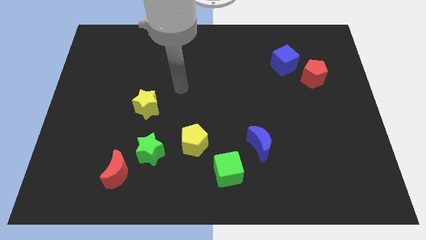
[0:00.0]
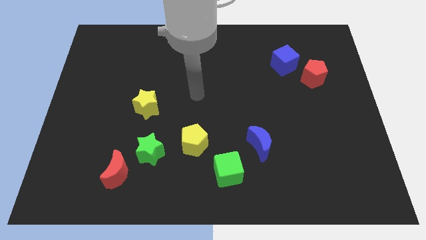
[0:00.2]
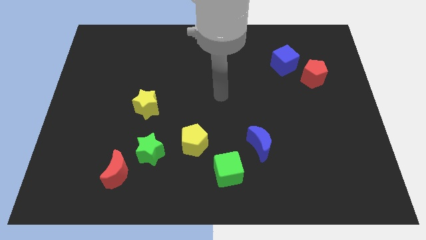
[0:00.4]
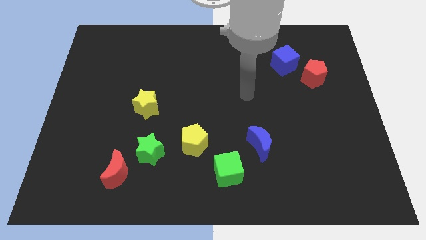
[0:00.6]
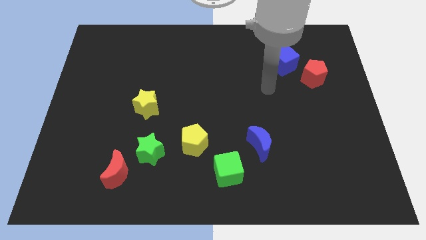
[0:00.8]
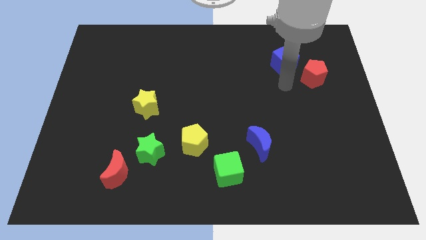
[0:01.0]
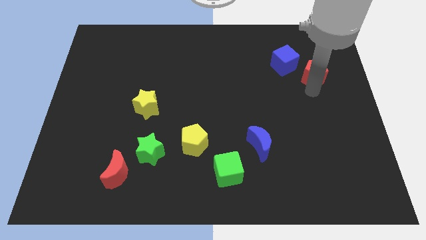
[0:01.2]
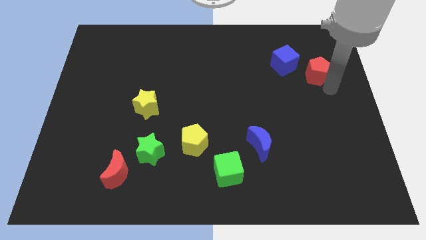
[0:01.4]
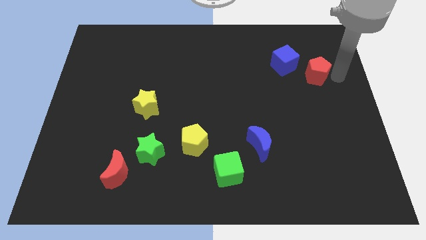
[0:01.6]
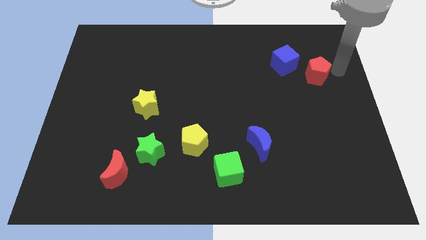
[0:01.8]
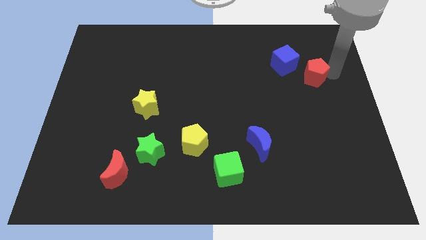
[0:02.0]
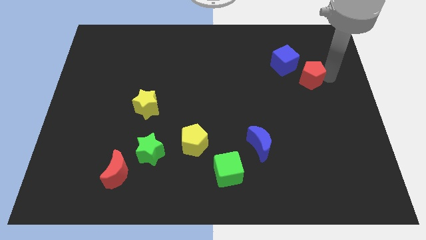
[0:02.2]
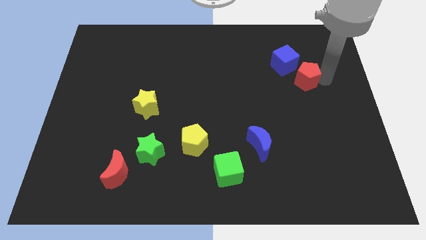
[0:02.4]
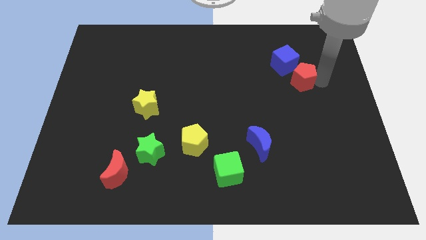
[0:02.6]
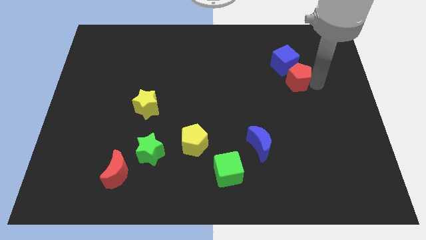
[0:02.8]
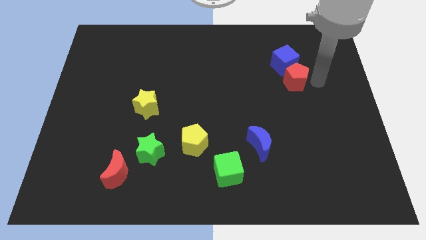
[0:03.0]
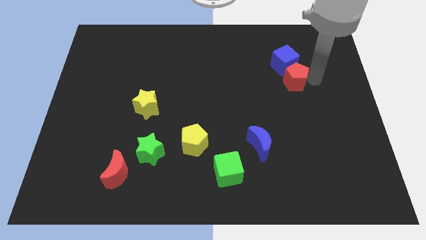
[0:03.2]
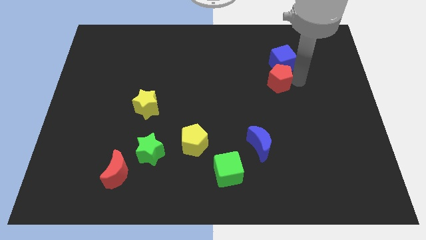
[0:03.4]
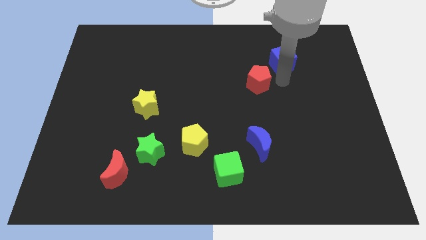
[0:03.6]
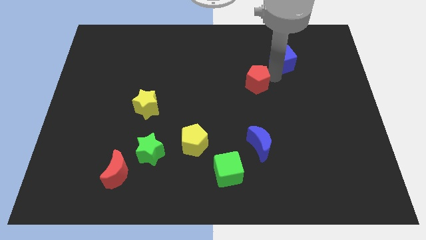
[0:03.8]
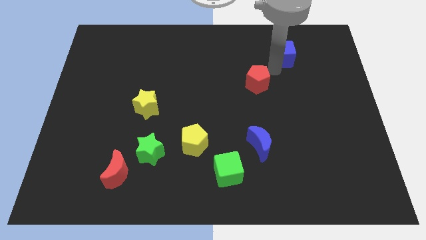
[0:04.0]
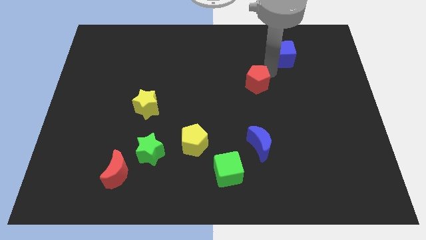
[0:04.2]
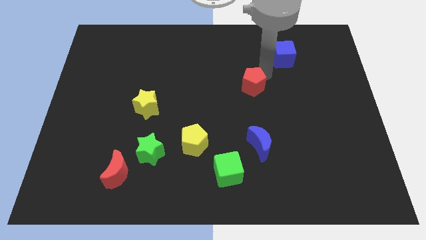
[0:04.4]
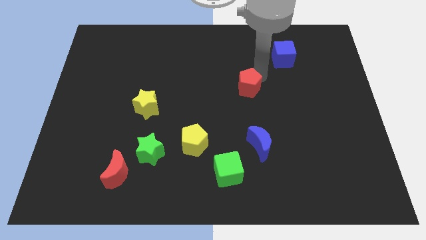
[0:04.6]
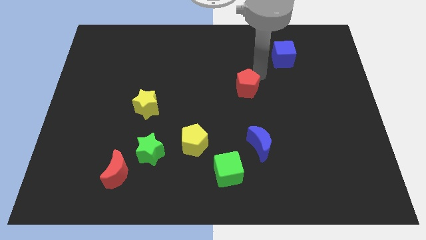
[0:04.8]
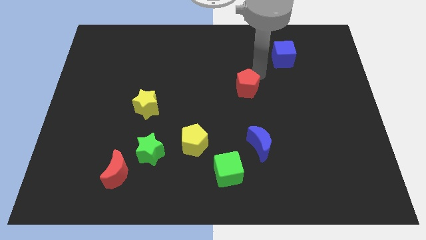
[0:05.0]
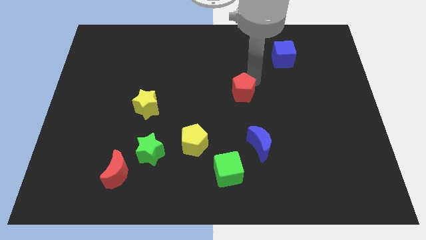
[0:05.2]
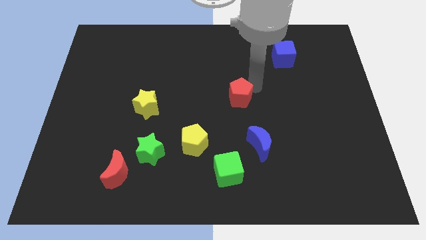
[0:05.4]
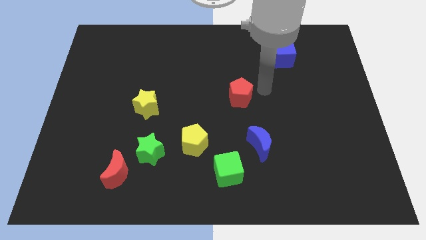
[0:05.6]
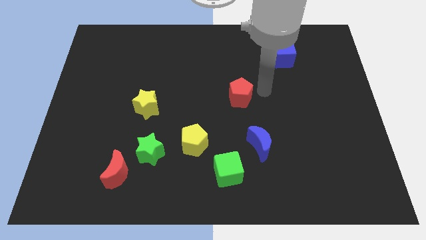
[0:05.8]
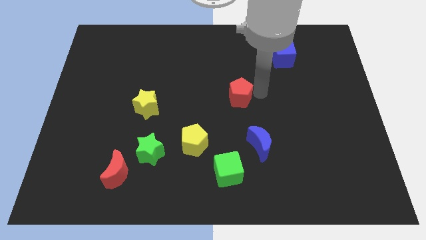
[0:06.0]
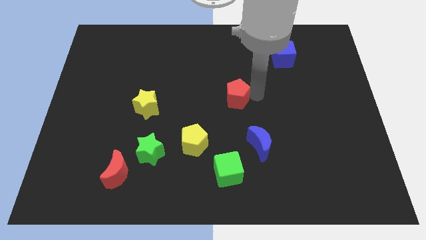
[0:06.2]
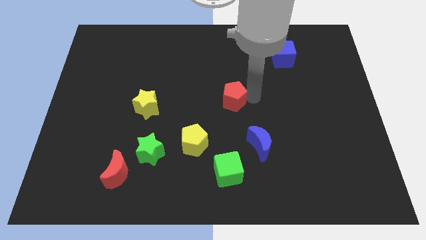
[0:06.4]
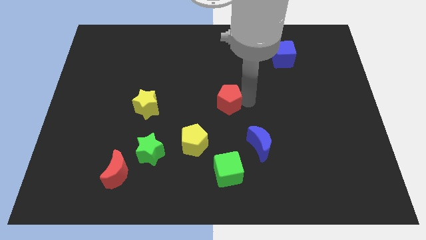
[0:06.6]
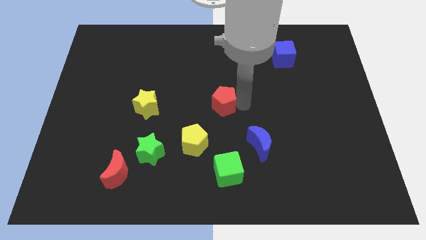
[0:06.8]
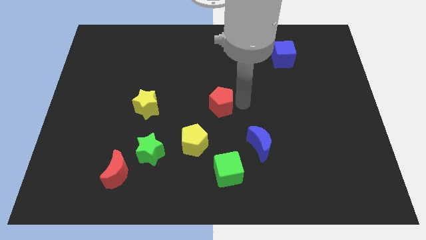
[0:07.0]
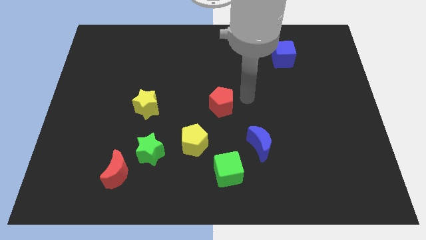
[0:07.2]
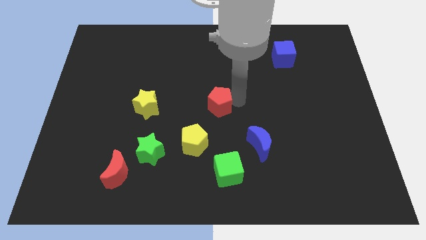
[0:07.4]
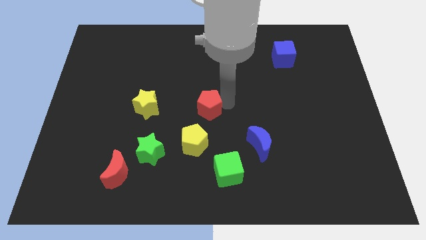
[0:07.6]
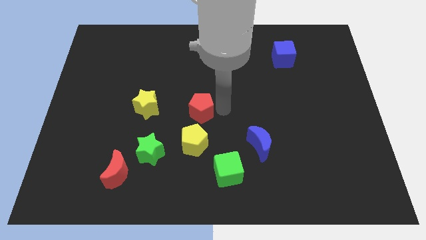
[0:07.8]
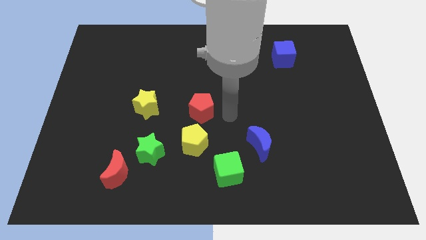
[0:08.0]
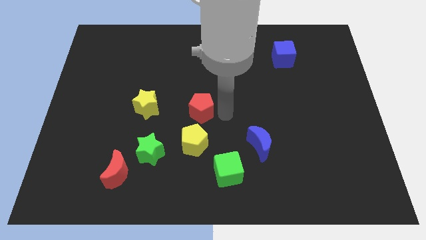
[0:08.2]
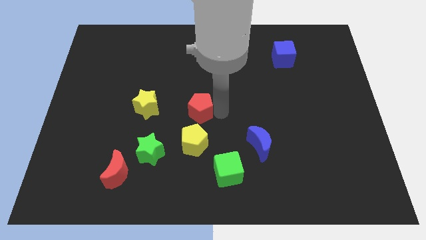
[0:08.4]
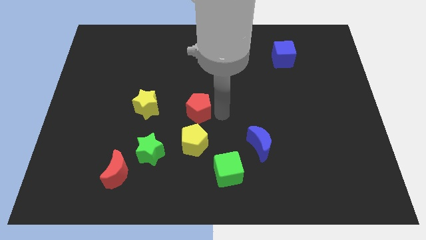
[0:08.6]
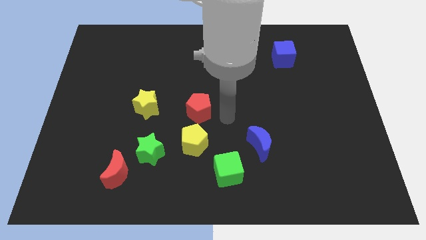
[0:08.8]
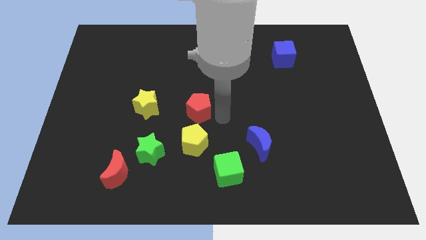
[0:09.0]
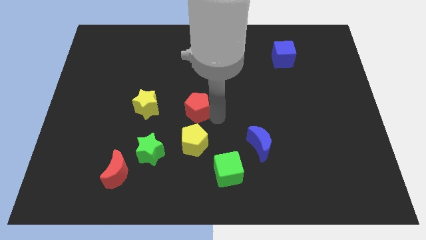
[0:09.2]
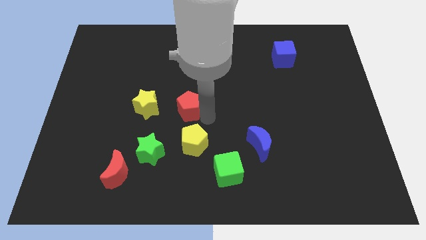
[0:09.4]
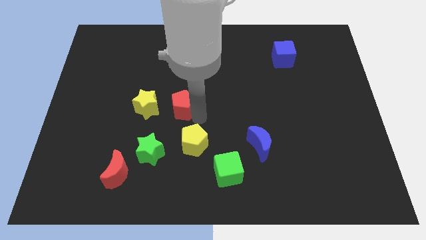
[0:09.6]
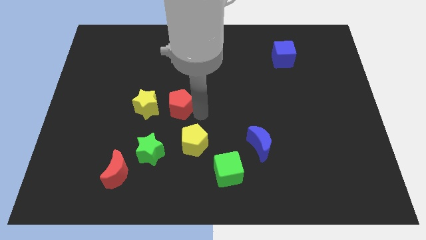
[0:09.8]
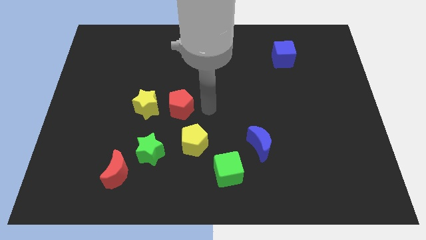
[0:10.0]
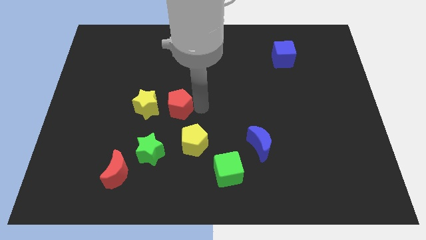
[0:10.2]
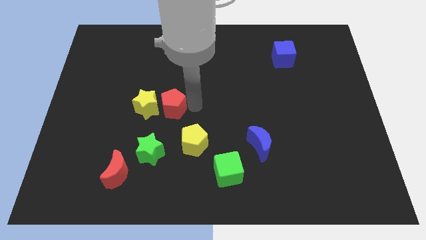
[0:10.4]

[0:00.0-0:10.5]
put the red pentagon to the yellow star

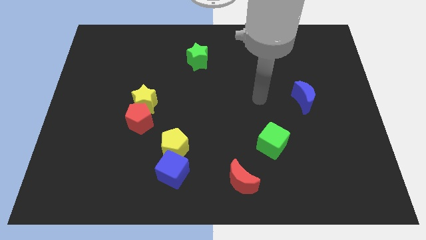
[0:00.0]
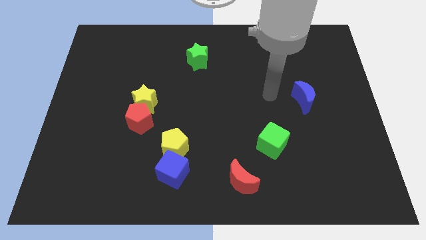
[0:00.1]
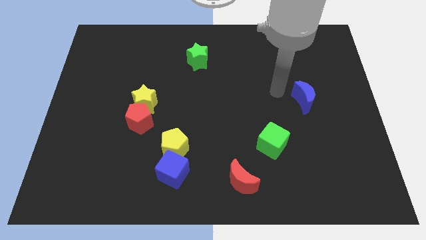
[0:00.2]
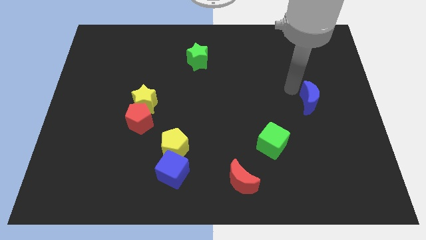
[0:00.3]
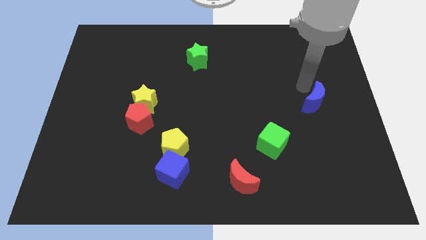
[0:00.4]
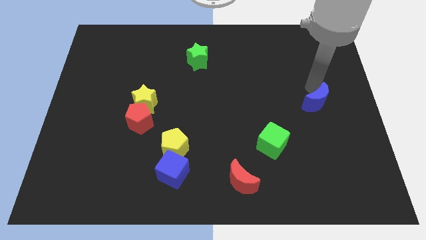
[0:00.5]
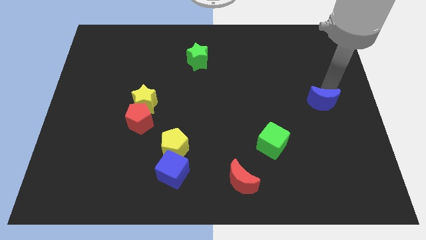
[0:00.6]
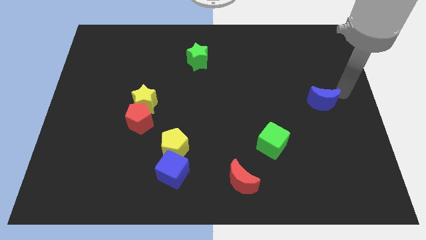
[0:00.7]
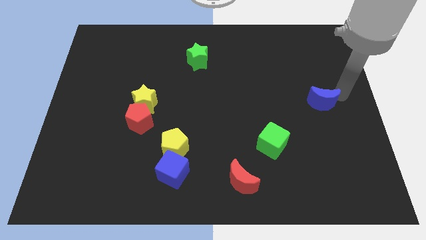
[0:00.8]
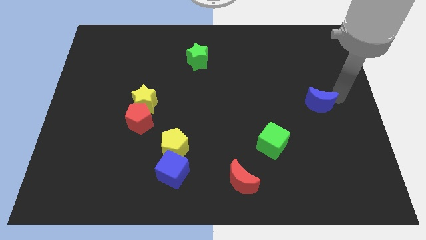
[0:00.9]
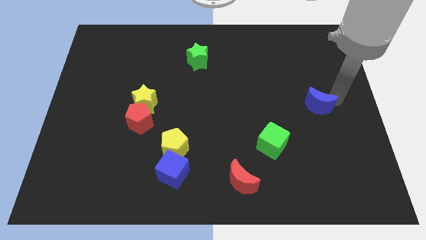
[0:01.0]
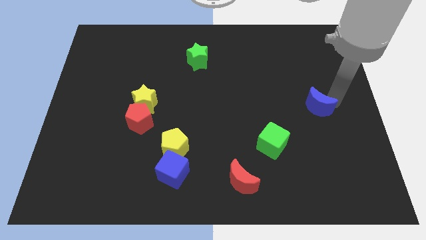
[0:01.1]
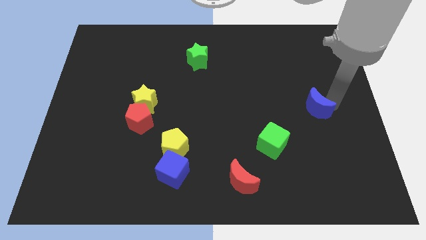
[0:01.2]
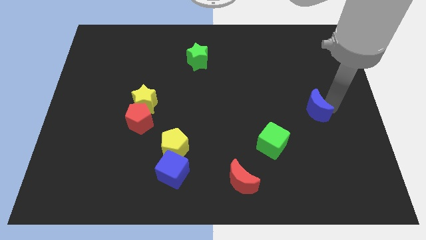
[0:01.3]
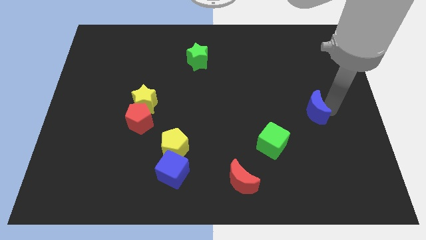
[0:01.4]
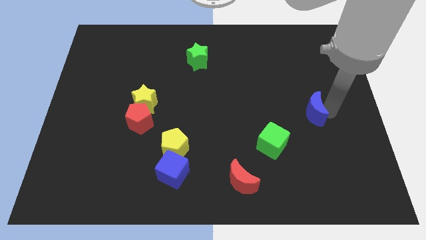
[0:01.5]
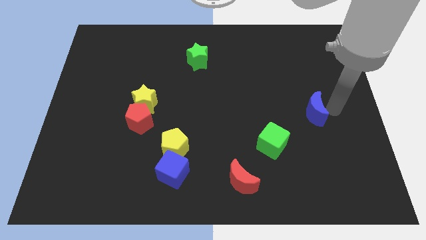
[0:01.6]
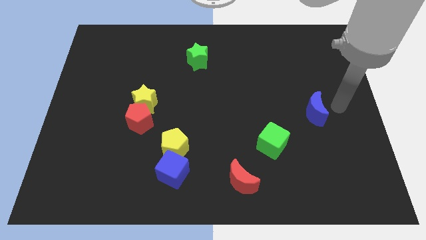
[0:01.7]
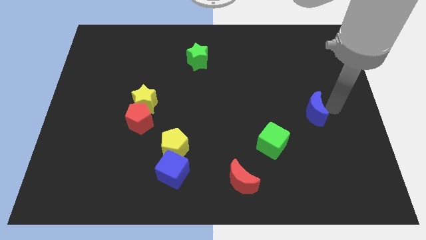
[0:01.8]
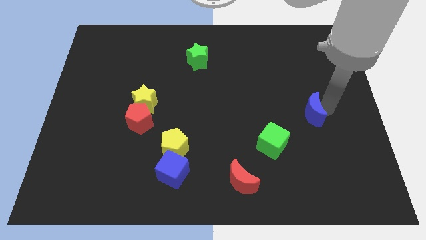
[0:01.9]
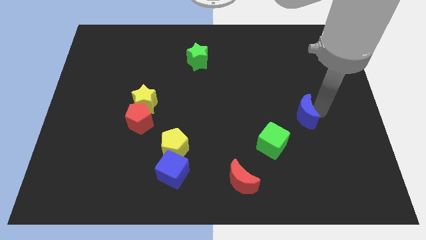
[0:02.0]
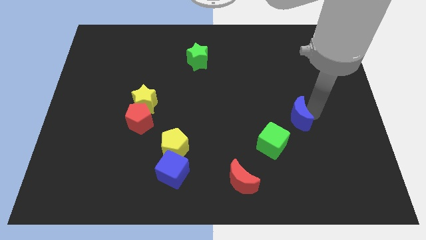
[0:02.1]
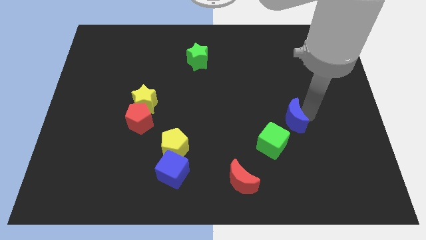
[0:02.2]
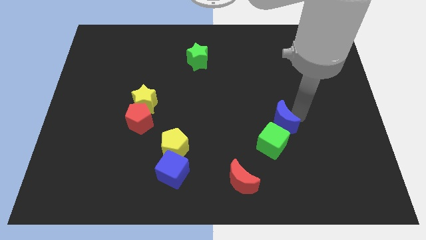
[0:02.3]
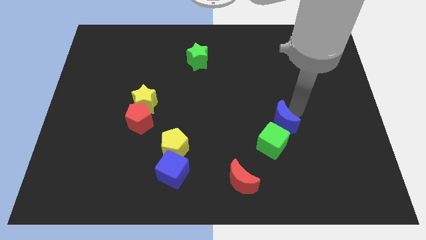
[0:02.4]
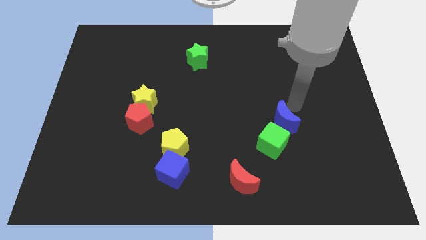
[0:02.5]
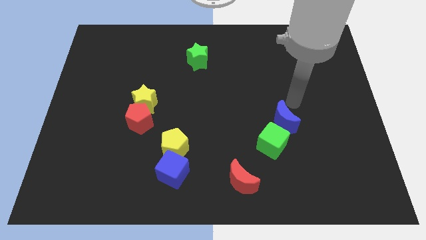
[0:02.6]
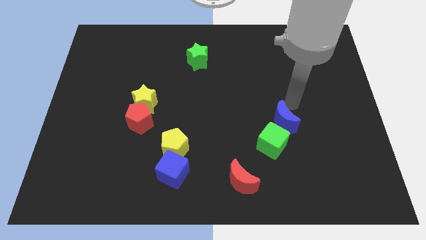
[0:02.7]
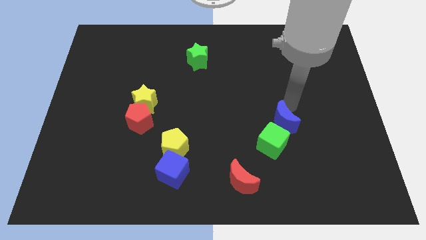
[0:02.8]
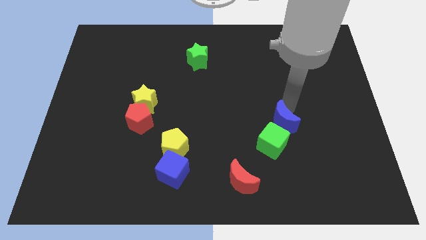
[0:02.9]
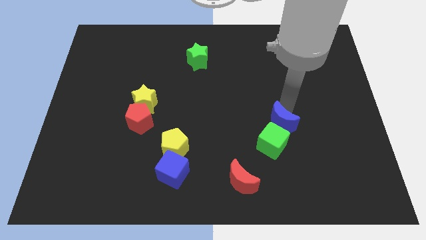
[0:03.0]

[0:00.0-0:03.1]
move the blue moon to the green cube
